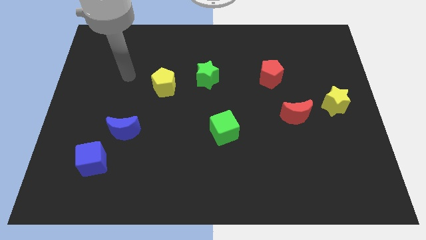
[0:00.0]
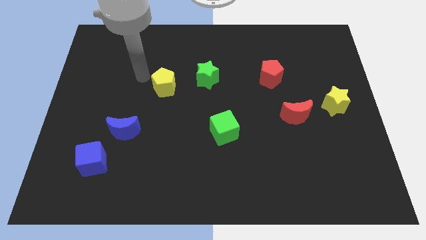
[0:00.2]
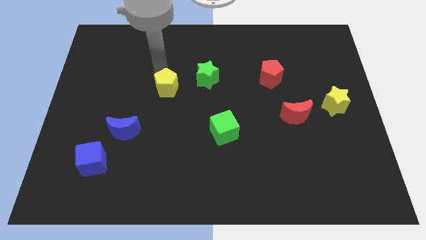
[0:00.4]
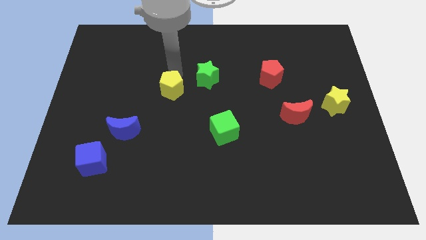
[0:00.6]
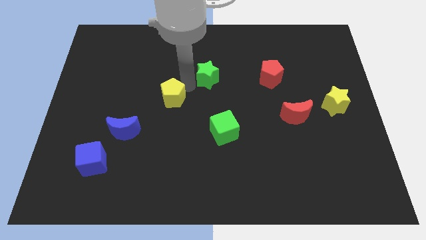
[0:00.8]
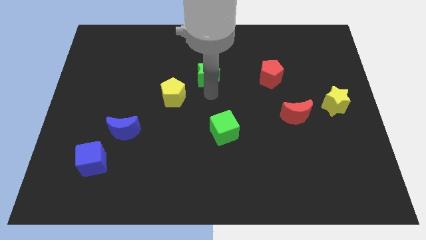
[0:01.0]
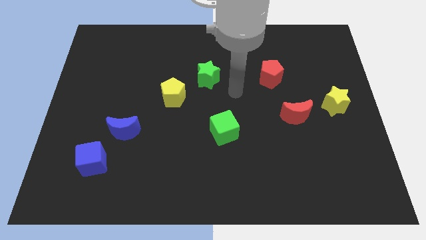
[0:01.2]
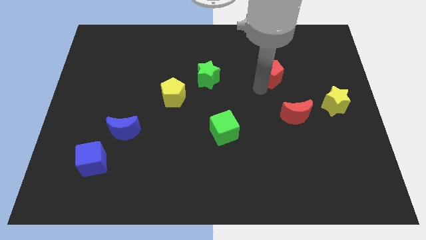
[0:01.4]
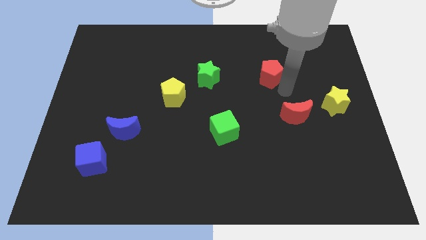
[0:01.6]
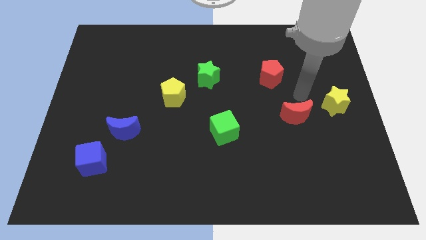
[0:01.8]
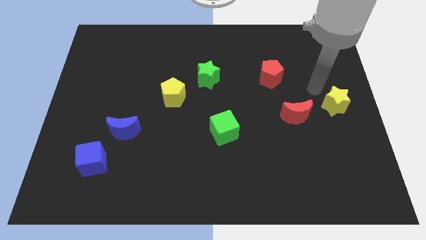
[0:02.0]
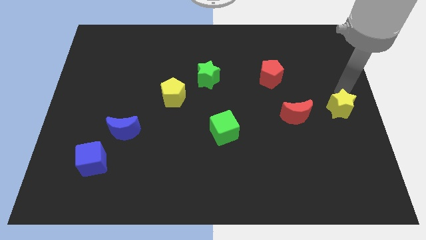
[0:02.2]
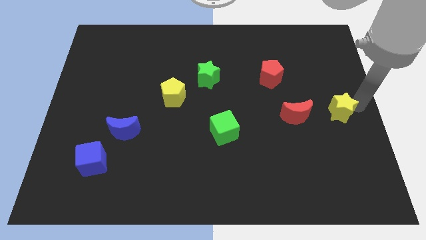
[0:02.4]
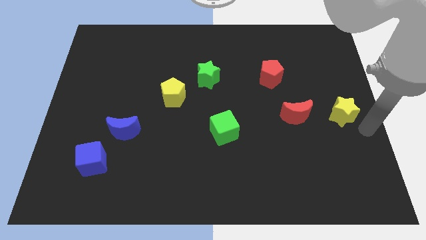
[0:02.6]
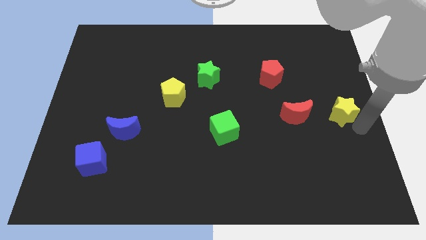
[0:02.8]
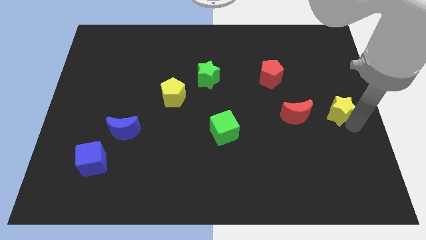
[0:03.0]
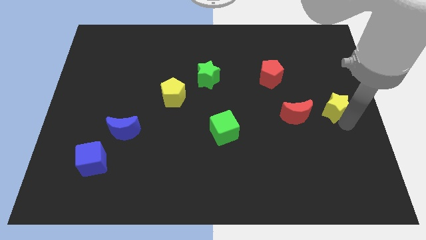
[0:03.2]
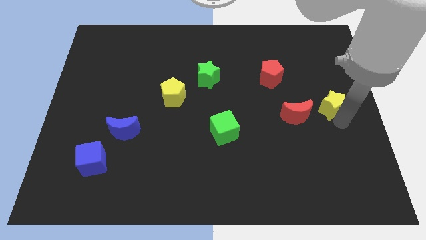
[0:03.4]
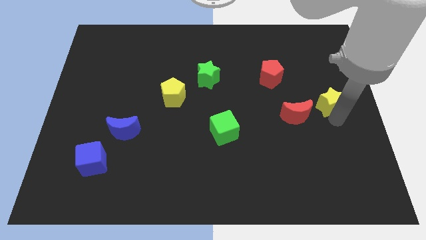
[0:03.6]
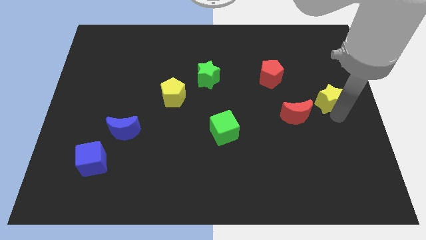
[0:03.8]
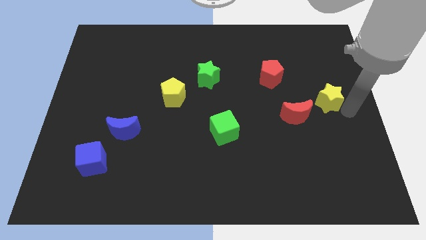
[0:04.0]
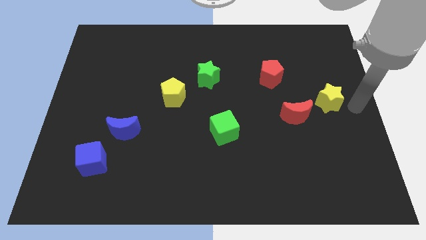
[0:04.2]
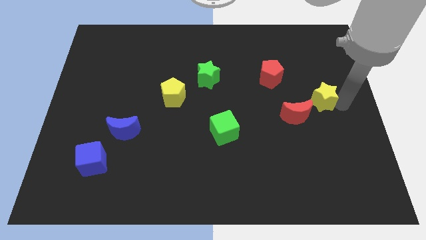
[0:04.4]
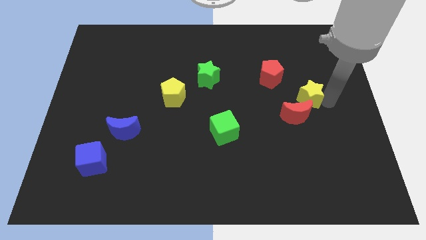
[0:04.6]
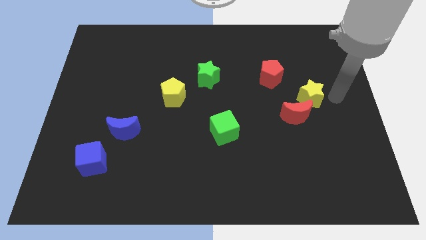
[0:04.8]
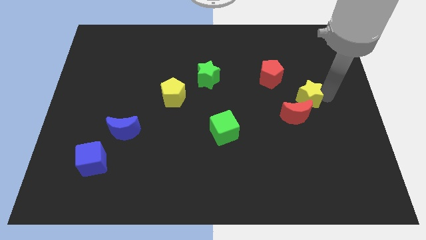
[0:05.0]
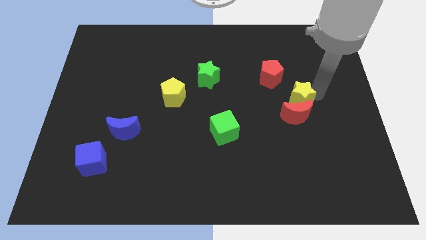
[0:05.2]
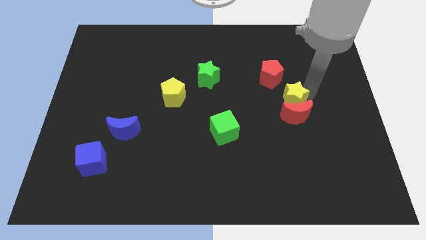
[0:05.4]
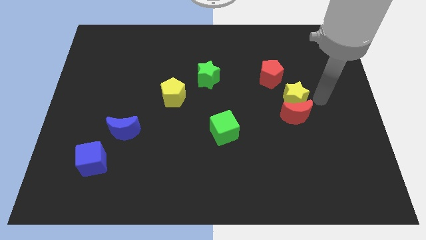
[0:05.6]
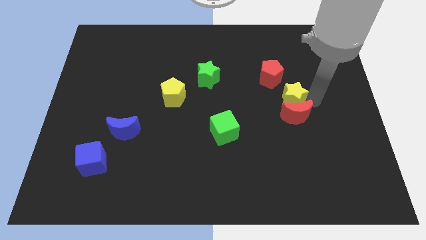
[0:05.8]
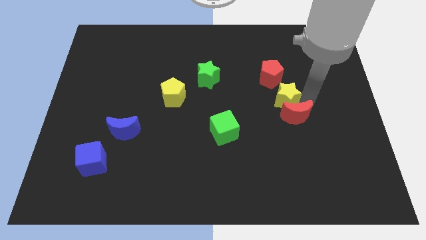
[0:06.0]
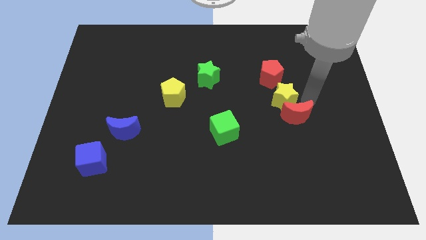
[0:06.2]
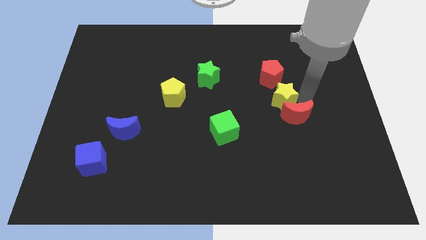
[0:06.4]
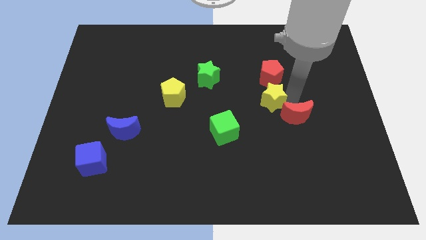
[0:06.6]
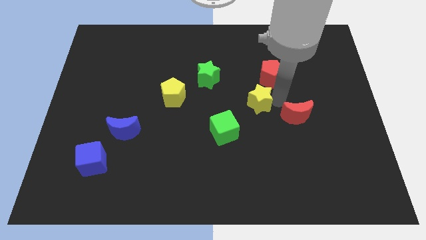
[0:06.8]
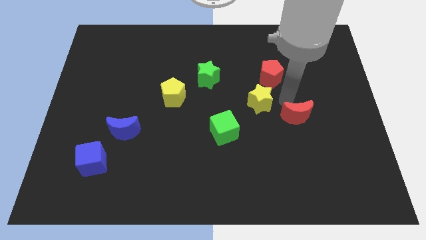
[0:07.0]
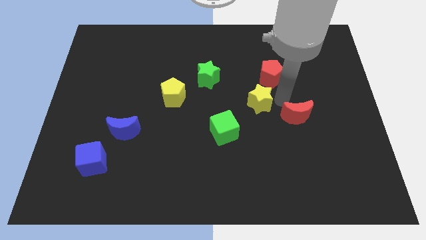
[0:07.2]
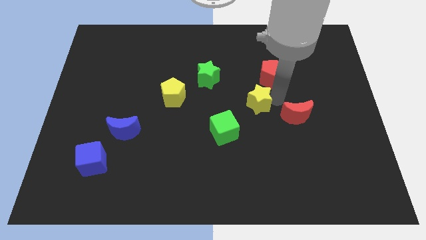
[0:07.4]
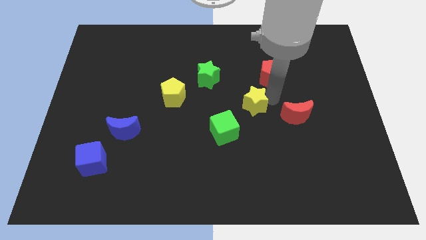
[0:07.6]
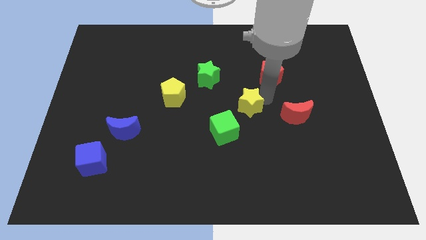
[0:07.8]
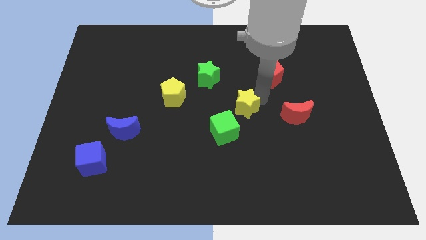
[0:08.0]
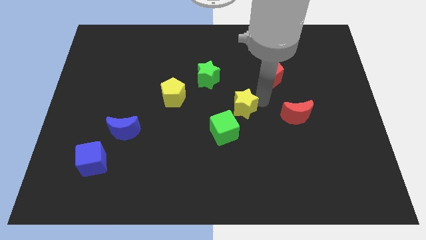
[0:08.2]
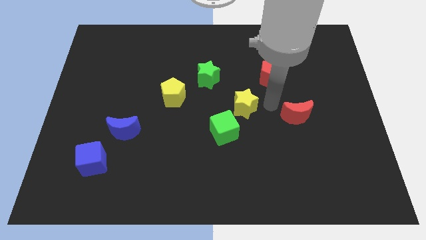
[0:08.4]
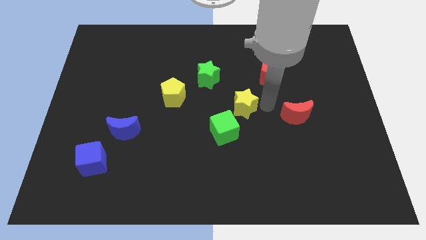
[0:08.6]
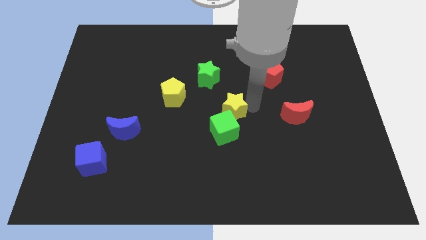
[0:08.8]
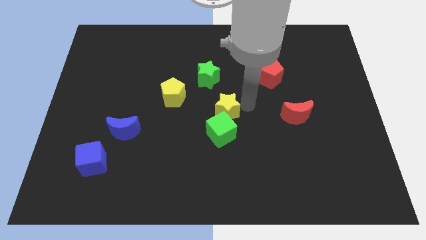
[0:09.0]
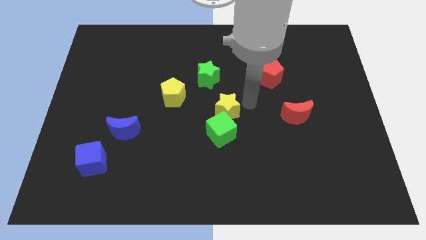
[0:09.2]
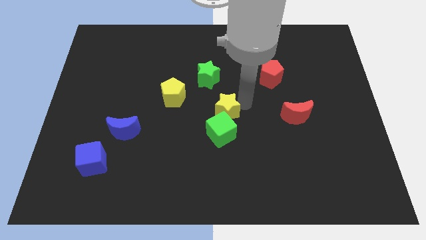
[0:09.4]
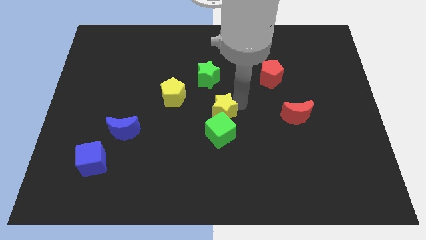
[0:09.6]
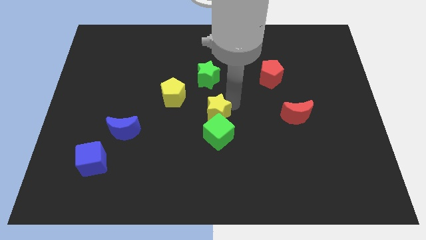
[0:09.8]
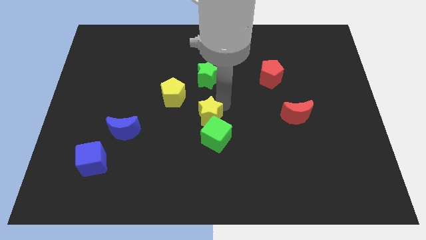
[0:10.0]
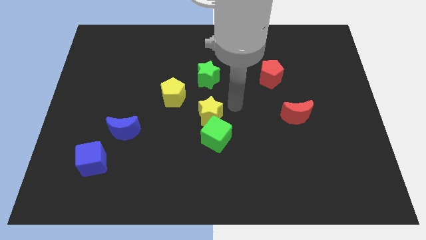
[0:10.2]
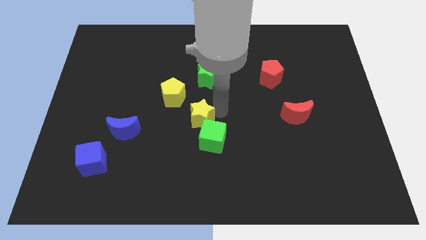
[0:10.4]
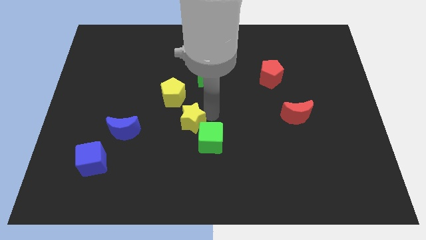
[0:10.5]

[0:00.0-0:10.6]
put the yellow star just right of the blue moon

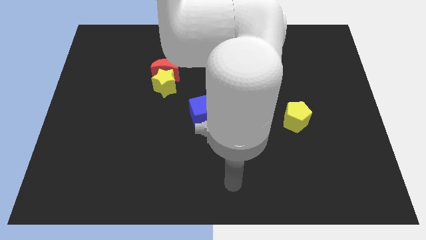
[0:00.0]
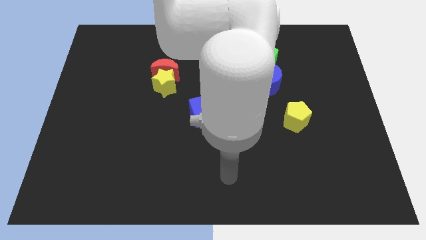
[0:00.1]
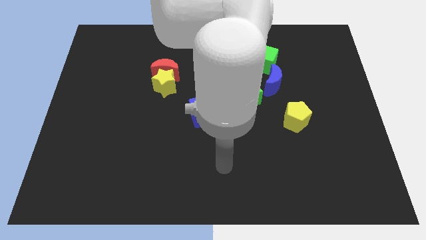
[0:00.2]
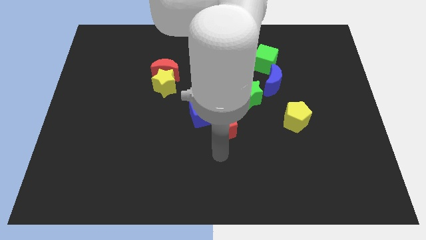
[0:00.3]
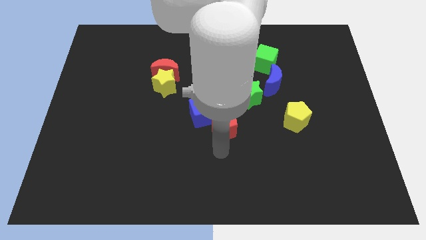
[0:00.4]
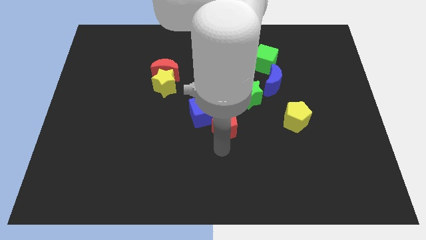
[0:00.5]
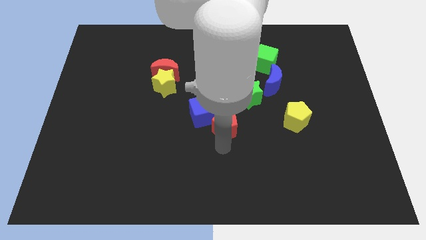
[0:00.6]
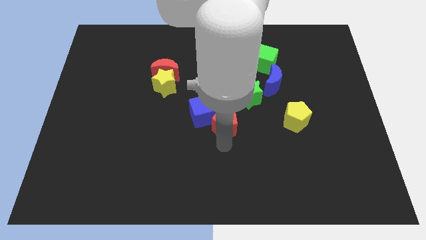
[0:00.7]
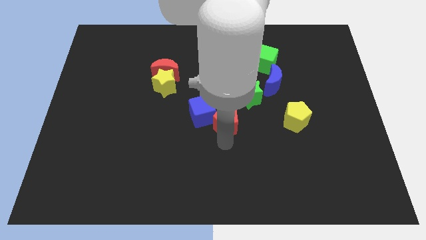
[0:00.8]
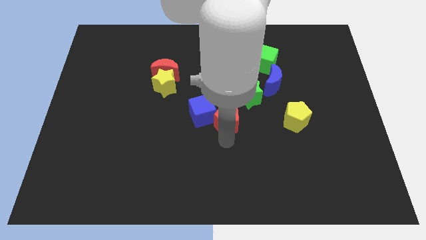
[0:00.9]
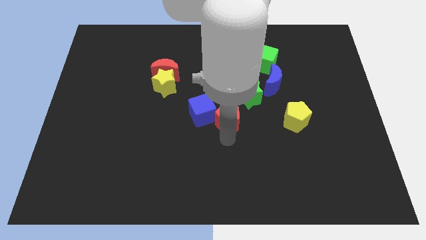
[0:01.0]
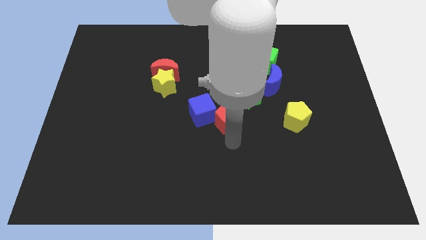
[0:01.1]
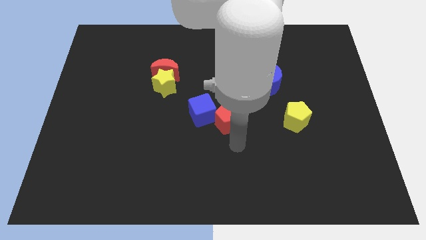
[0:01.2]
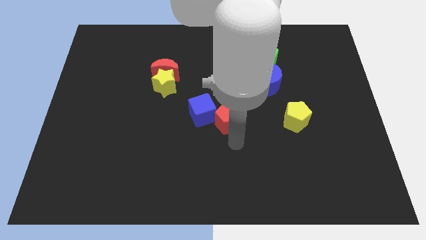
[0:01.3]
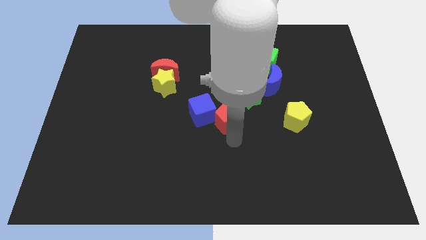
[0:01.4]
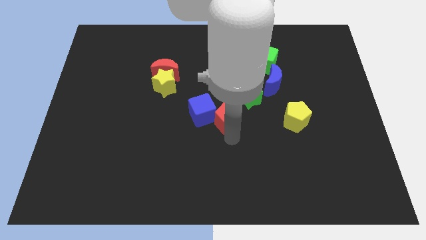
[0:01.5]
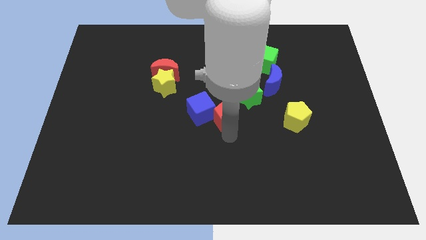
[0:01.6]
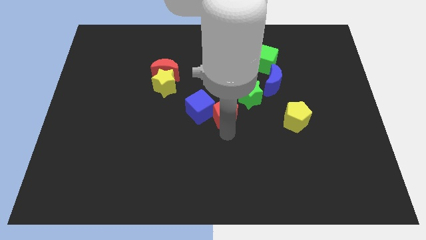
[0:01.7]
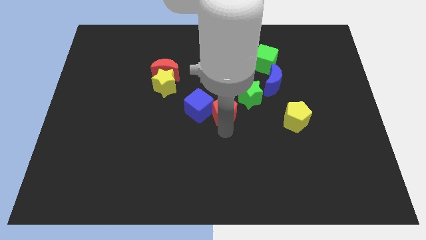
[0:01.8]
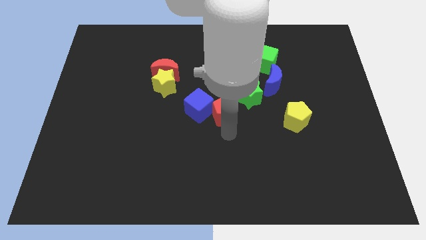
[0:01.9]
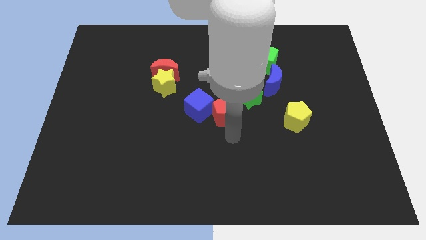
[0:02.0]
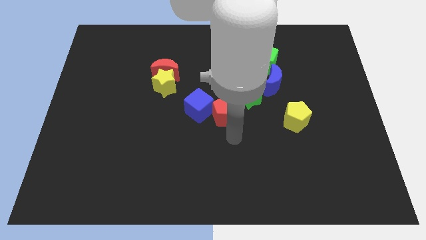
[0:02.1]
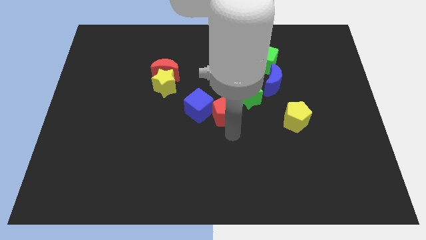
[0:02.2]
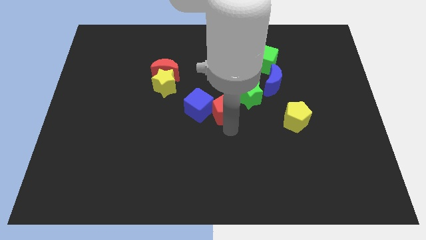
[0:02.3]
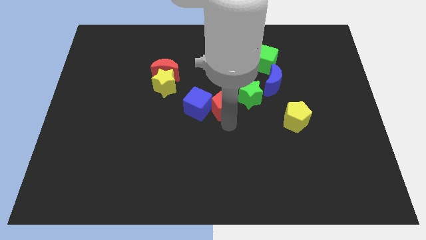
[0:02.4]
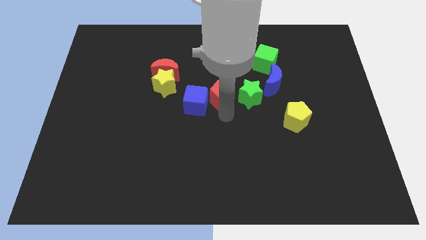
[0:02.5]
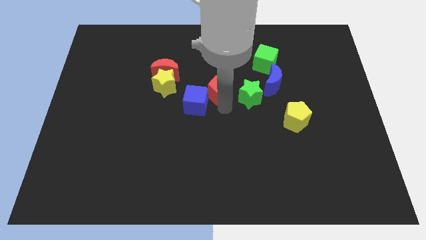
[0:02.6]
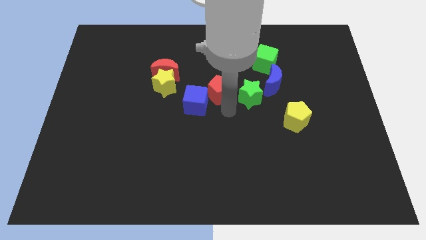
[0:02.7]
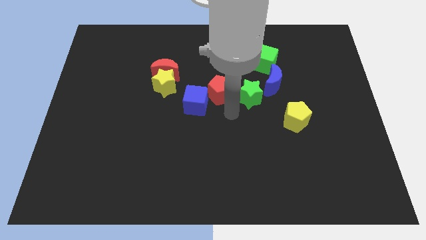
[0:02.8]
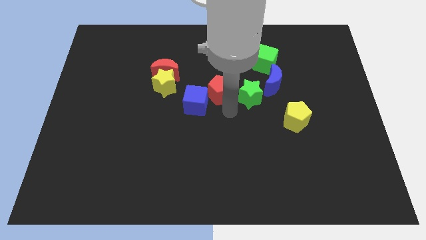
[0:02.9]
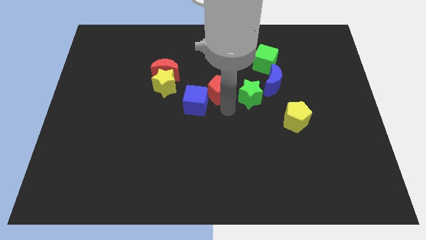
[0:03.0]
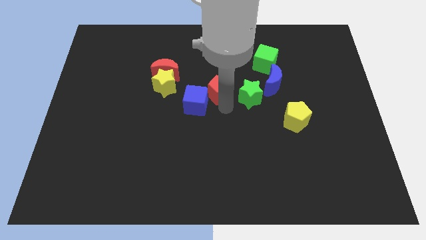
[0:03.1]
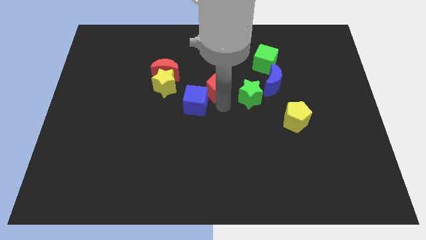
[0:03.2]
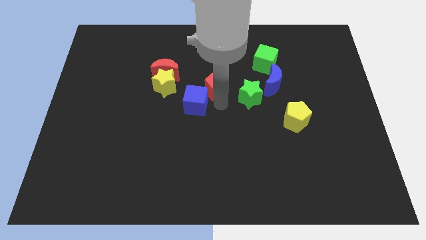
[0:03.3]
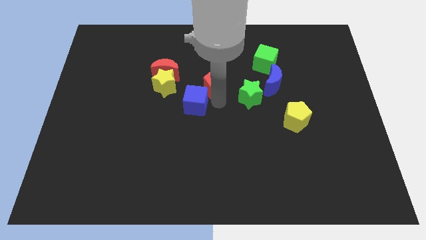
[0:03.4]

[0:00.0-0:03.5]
push the red pentagon to the right of the red moon
